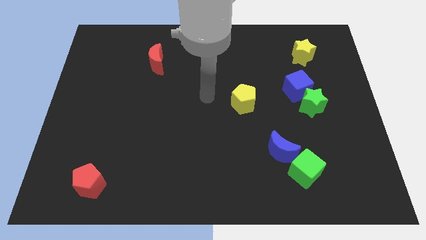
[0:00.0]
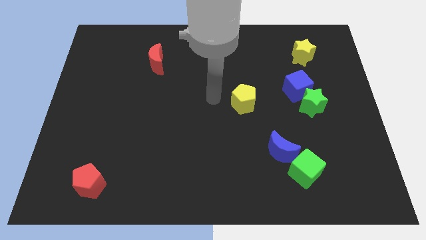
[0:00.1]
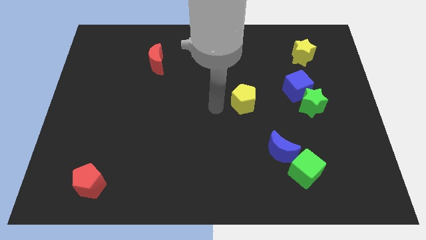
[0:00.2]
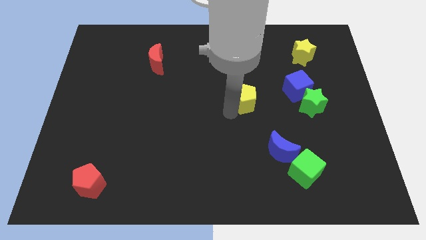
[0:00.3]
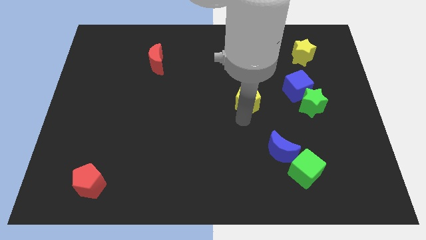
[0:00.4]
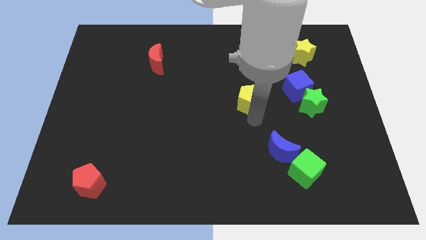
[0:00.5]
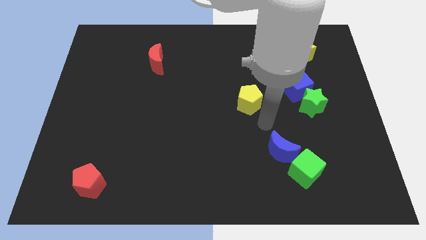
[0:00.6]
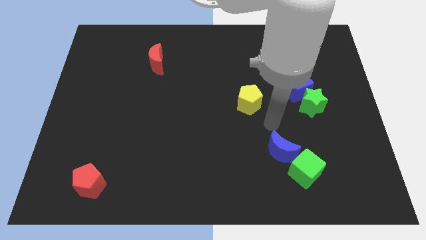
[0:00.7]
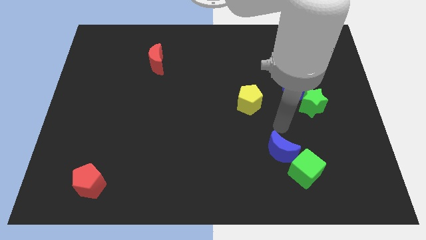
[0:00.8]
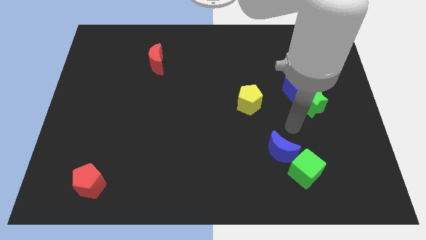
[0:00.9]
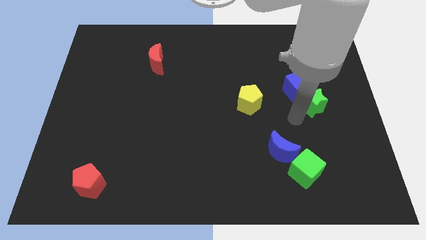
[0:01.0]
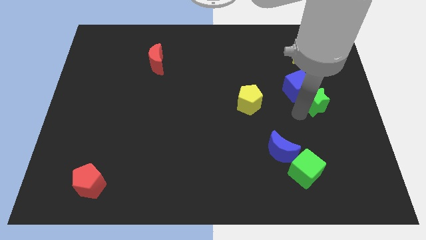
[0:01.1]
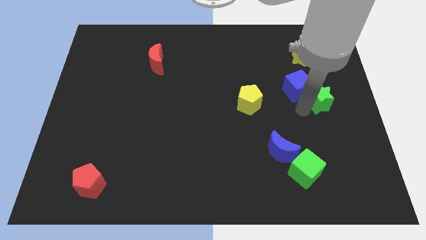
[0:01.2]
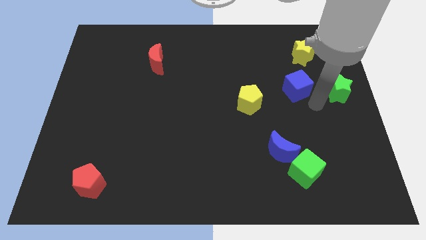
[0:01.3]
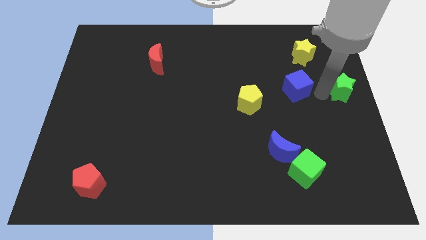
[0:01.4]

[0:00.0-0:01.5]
separate the blue cube from the green star

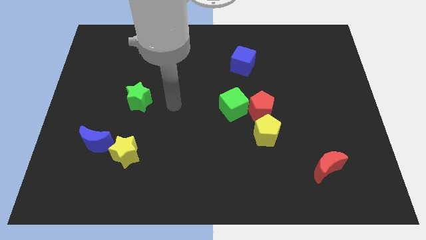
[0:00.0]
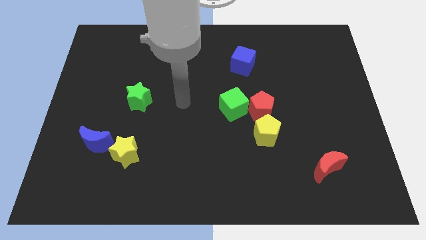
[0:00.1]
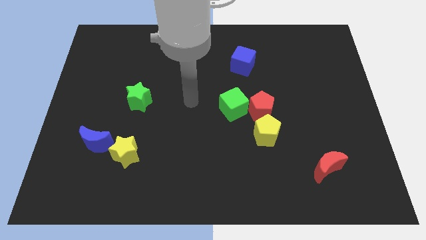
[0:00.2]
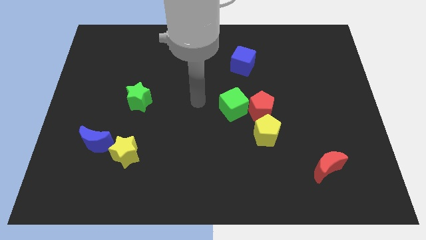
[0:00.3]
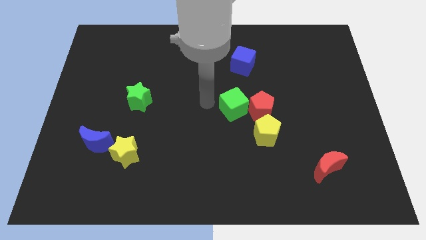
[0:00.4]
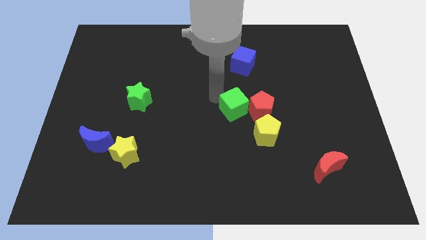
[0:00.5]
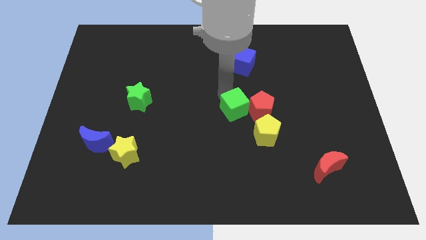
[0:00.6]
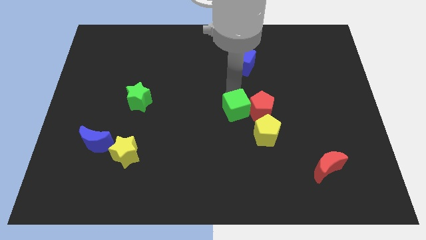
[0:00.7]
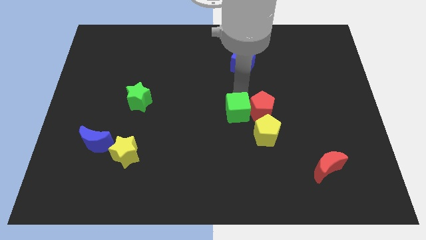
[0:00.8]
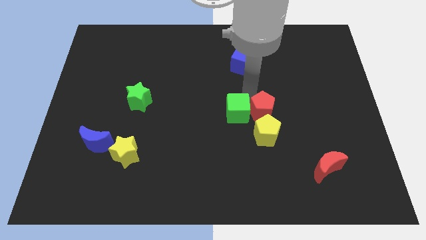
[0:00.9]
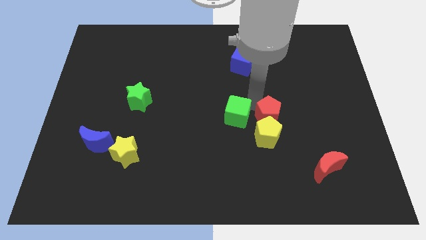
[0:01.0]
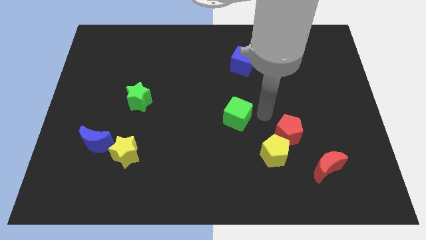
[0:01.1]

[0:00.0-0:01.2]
move the green cube away from the red pentagon

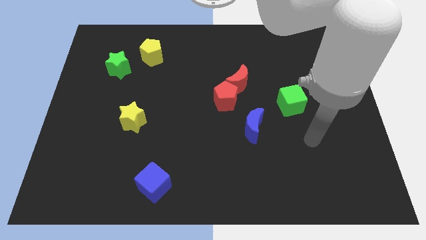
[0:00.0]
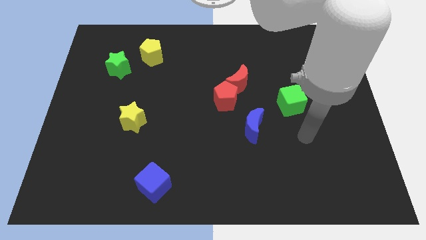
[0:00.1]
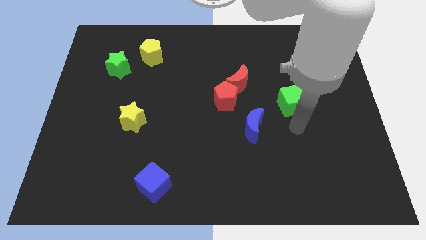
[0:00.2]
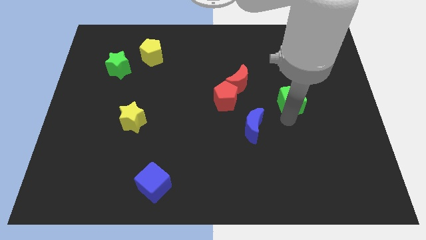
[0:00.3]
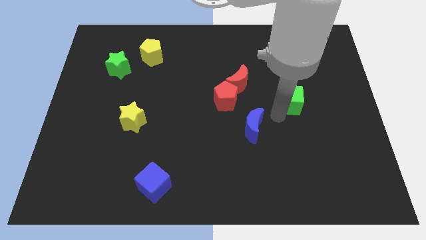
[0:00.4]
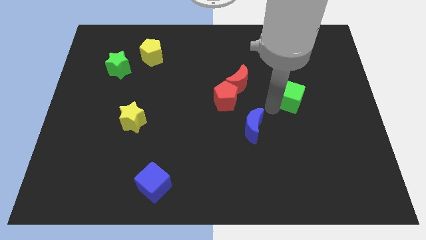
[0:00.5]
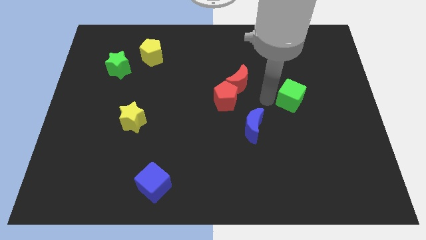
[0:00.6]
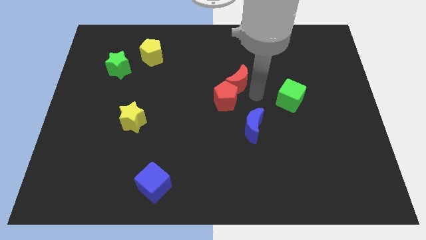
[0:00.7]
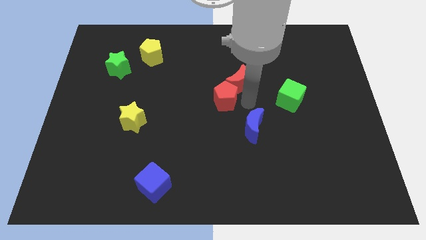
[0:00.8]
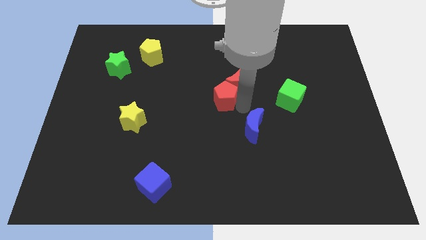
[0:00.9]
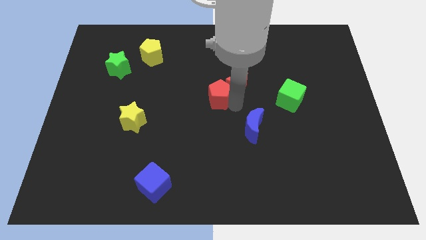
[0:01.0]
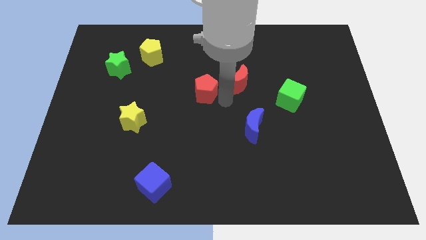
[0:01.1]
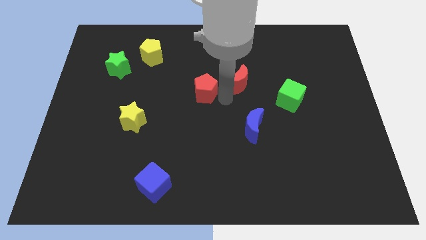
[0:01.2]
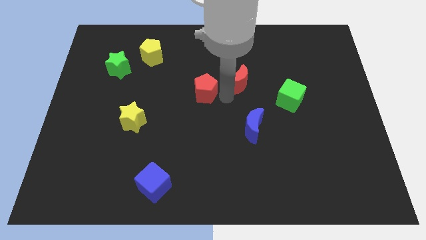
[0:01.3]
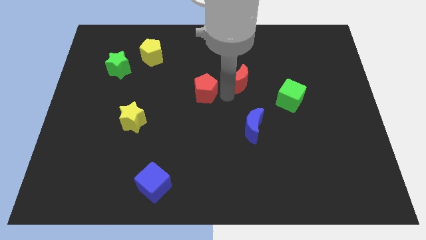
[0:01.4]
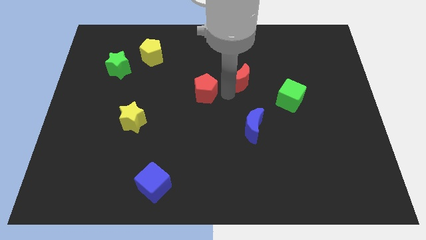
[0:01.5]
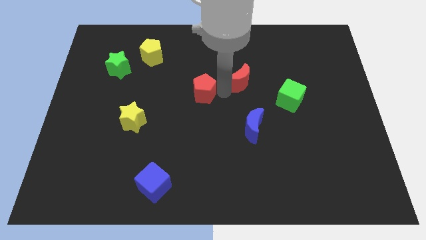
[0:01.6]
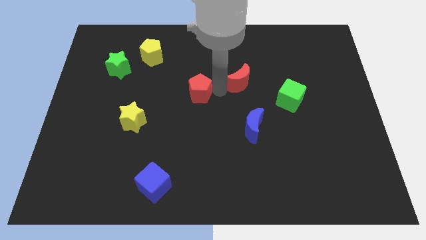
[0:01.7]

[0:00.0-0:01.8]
move the red moon away from the red pentagon

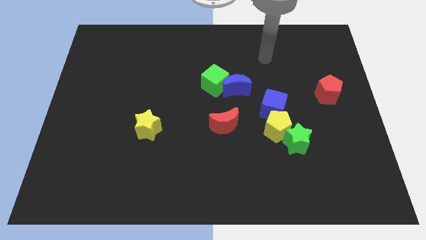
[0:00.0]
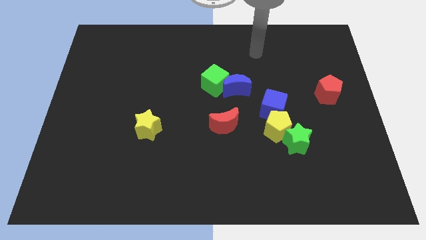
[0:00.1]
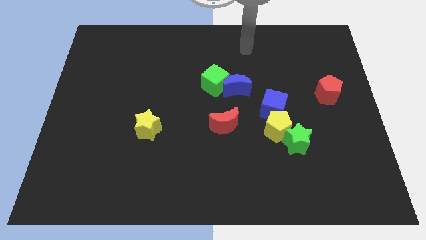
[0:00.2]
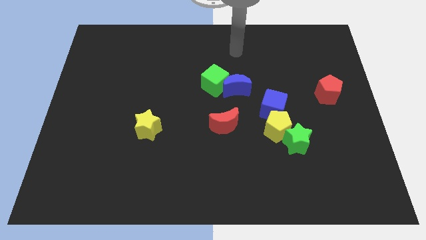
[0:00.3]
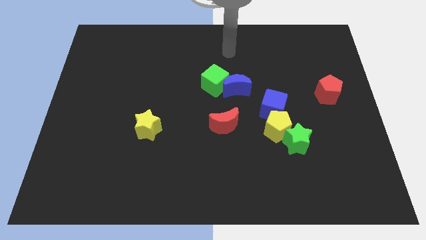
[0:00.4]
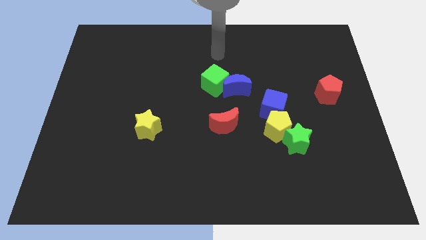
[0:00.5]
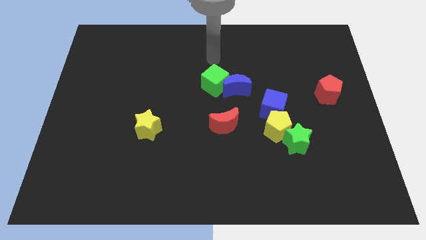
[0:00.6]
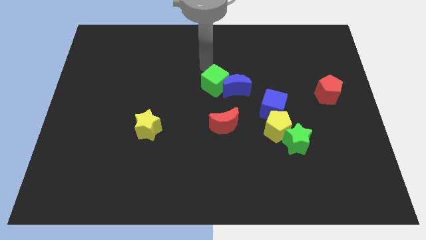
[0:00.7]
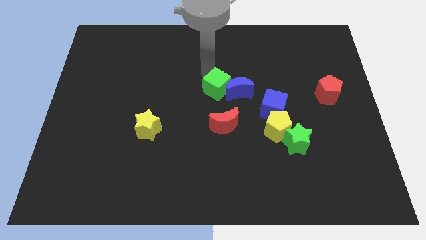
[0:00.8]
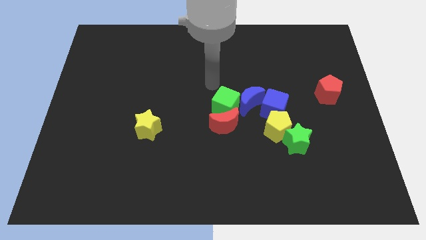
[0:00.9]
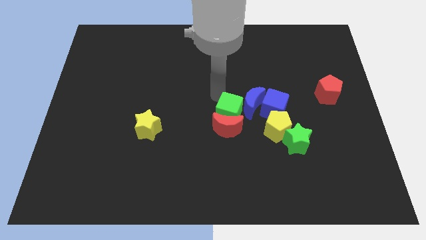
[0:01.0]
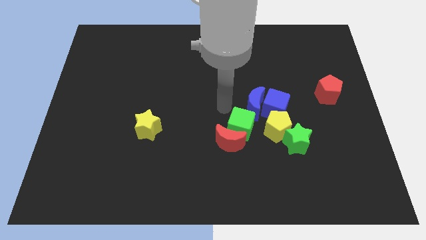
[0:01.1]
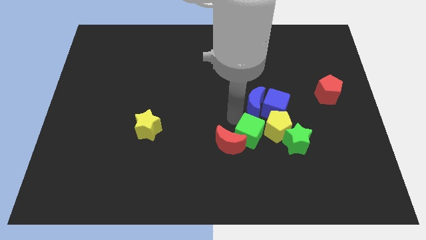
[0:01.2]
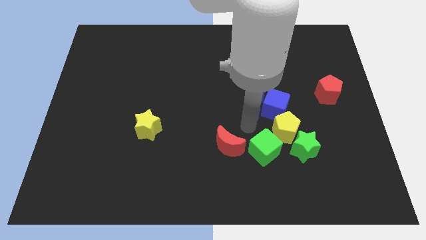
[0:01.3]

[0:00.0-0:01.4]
pull the blue moon apart from the green cube

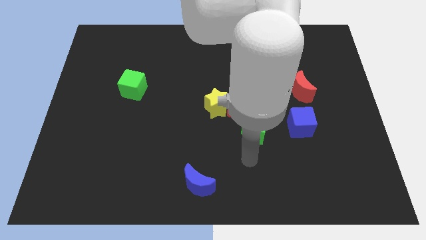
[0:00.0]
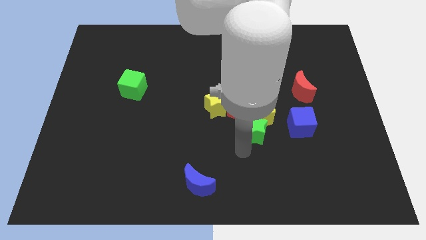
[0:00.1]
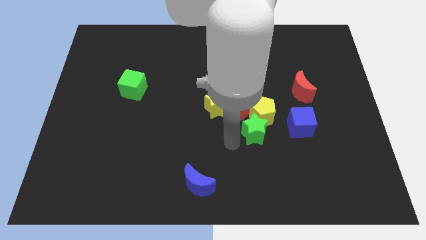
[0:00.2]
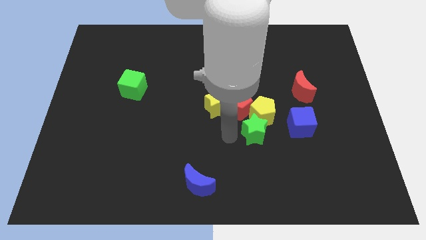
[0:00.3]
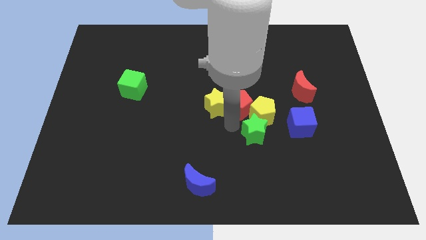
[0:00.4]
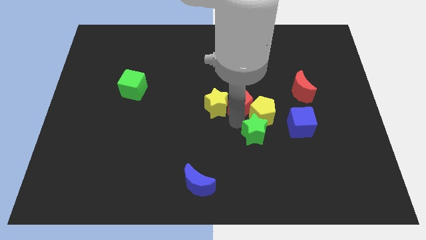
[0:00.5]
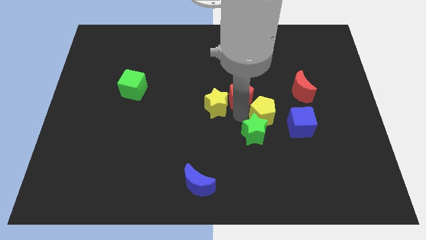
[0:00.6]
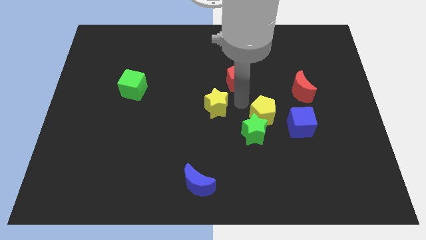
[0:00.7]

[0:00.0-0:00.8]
move the yellow star away from the red pentagon

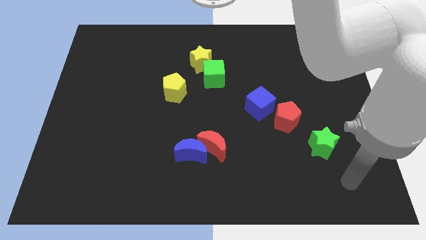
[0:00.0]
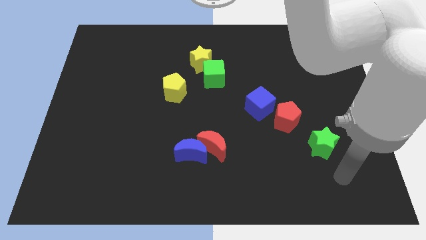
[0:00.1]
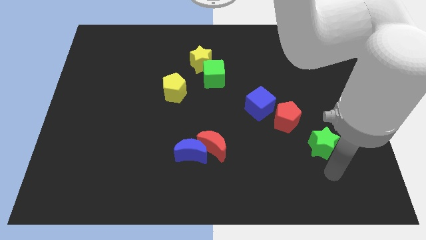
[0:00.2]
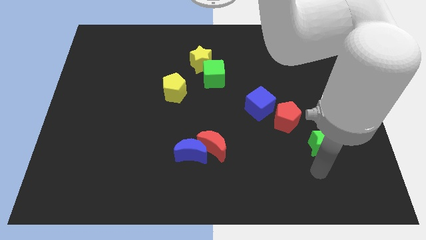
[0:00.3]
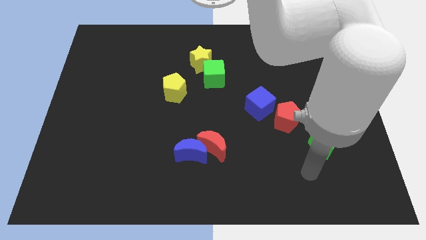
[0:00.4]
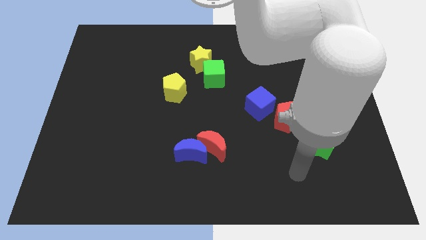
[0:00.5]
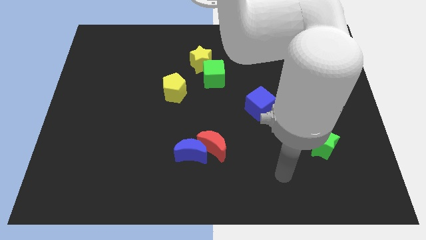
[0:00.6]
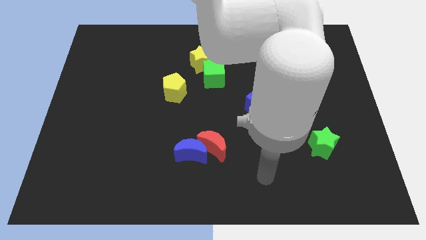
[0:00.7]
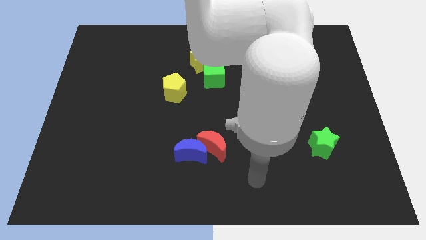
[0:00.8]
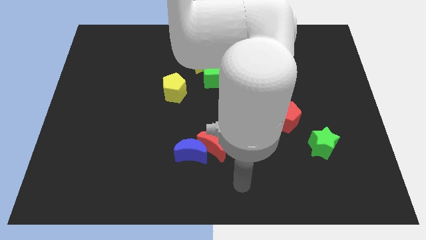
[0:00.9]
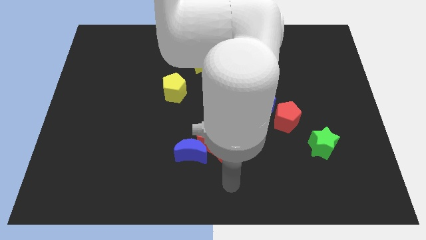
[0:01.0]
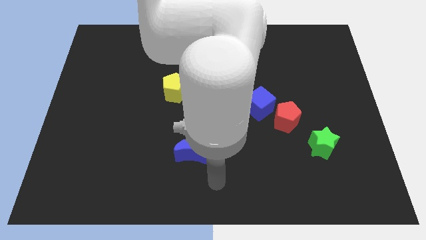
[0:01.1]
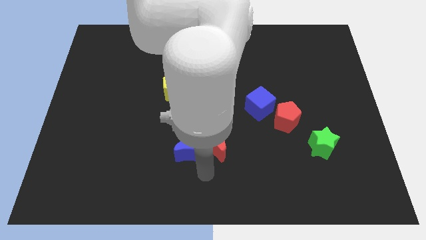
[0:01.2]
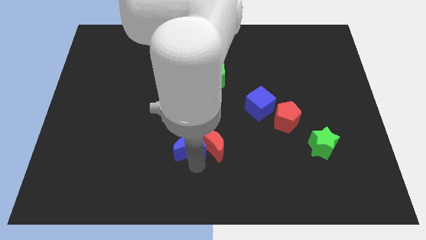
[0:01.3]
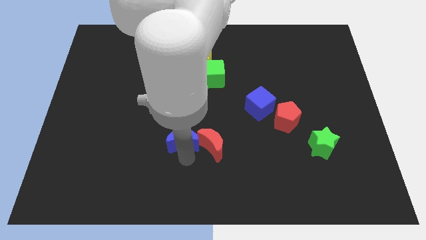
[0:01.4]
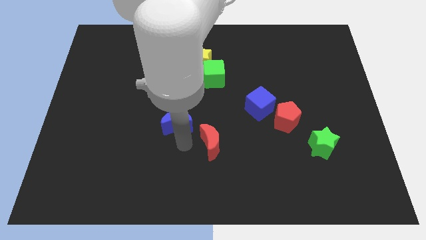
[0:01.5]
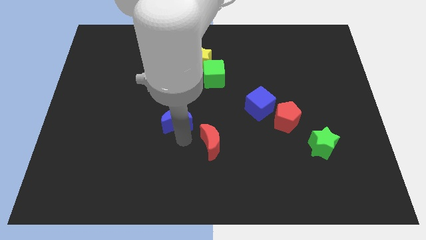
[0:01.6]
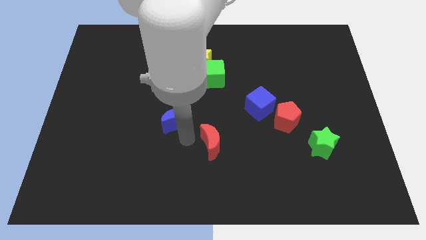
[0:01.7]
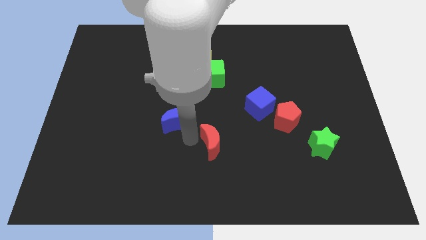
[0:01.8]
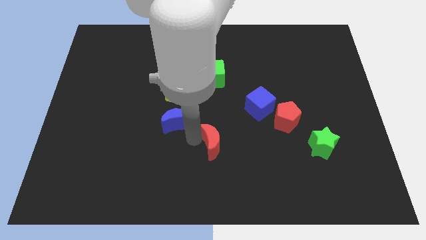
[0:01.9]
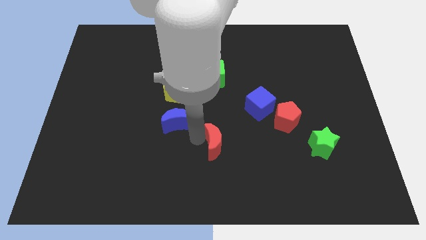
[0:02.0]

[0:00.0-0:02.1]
separate the red moon from the blue moon

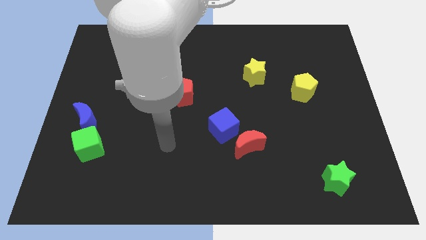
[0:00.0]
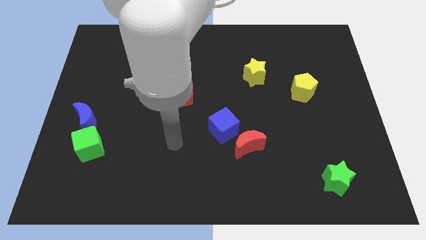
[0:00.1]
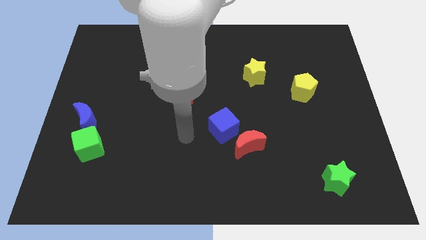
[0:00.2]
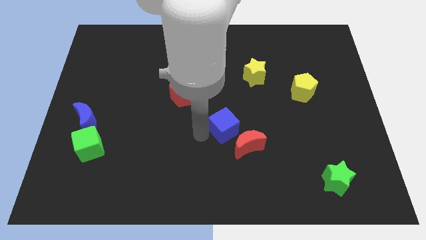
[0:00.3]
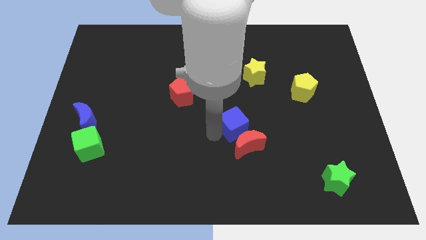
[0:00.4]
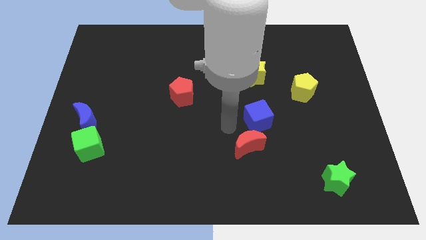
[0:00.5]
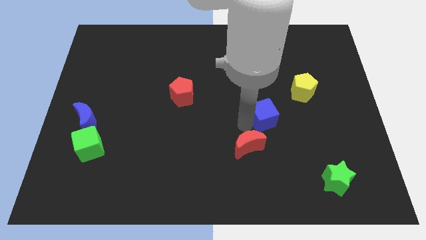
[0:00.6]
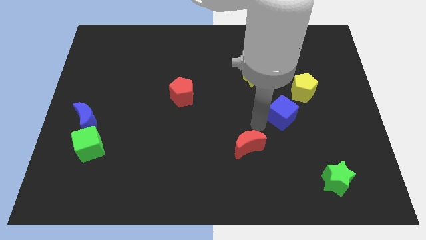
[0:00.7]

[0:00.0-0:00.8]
separate the red moon from the blue cube
